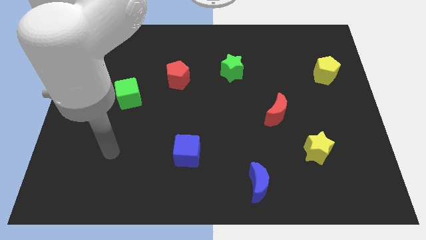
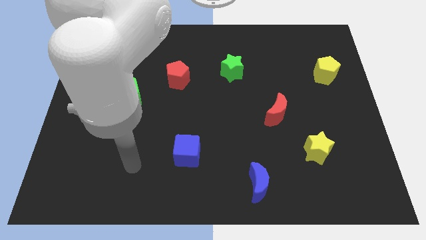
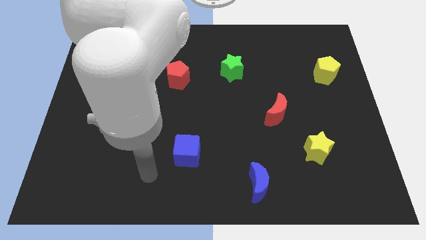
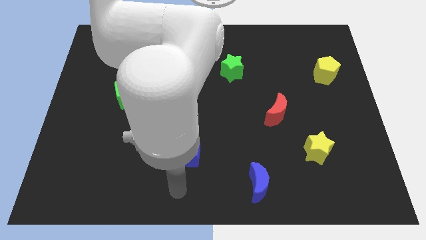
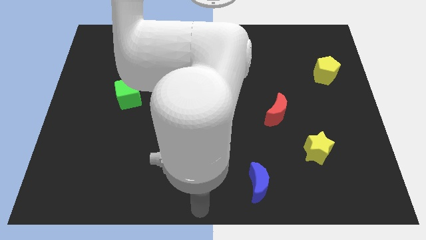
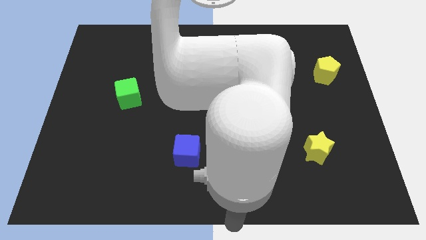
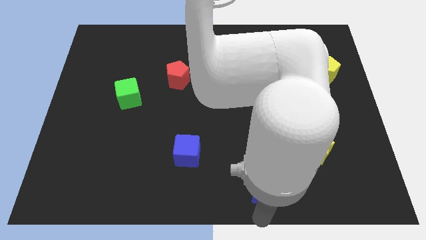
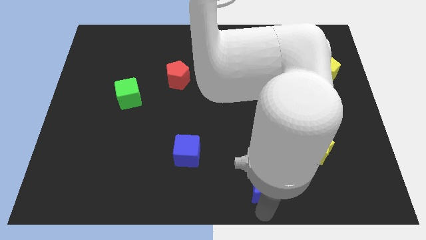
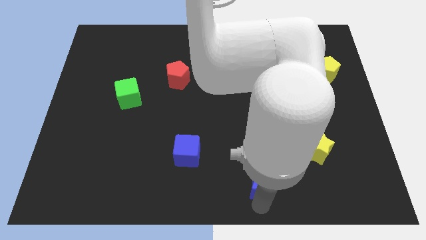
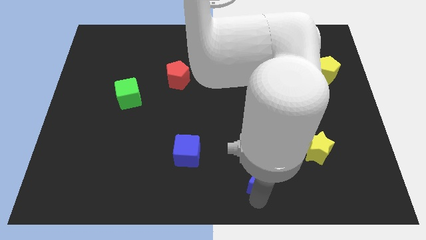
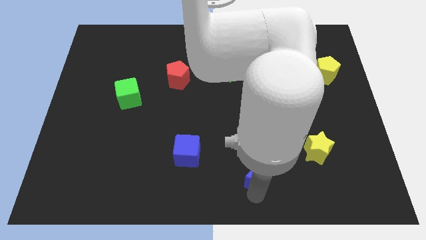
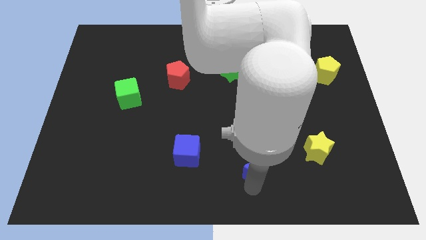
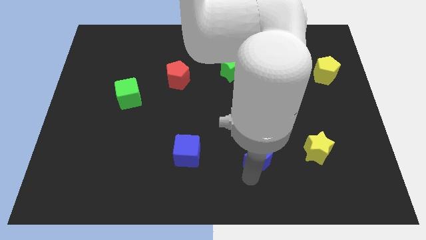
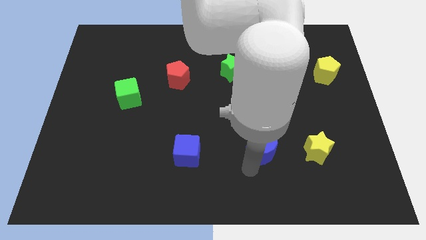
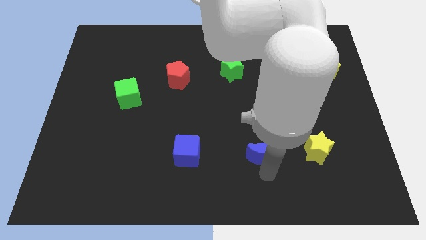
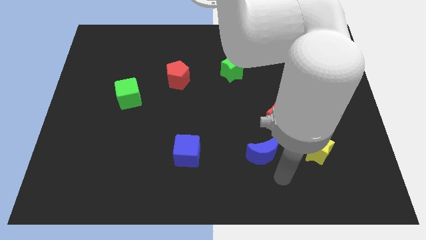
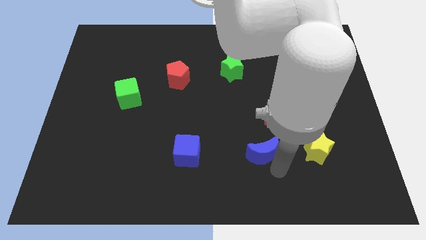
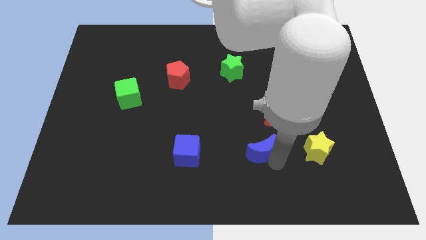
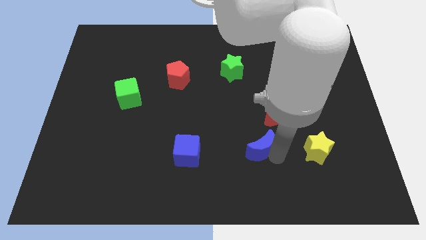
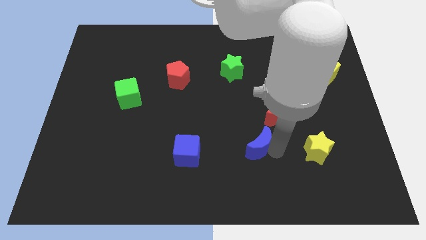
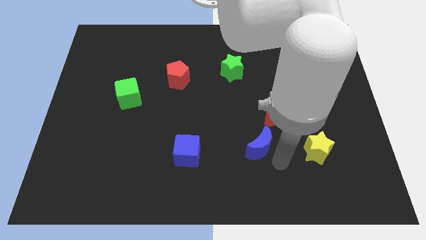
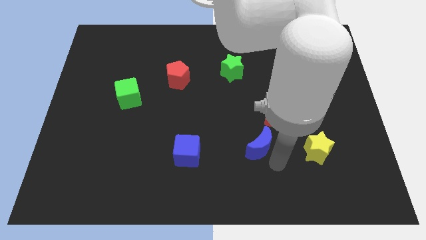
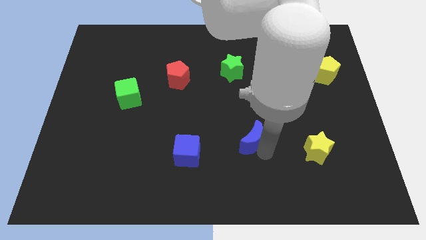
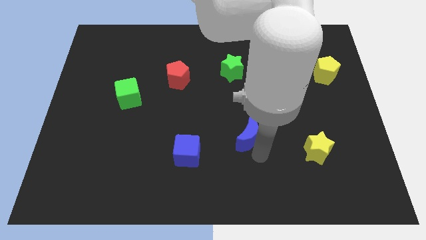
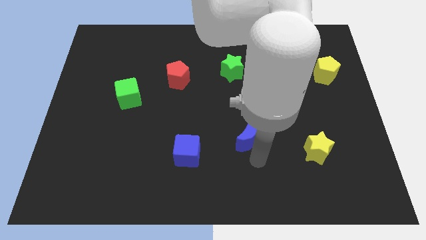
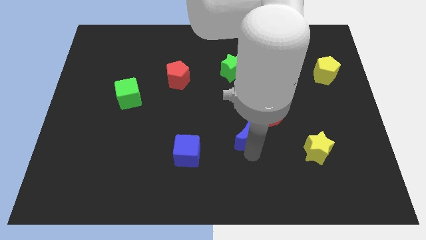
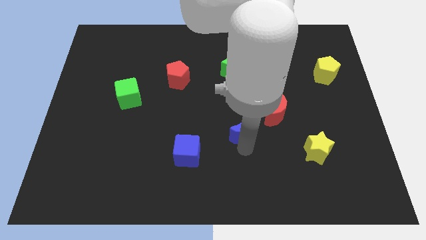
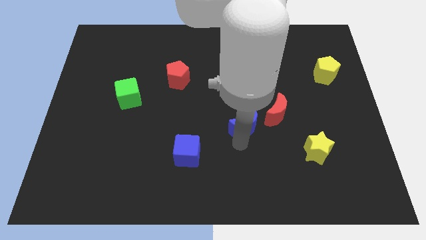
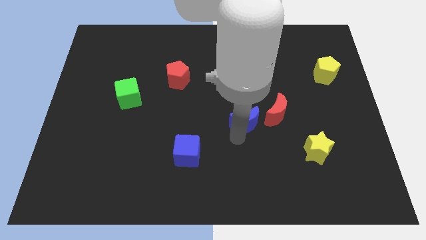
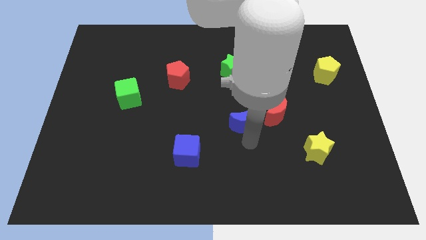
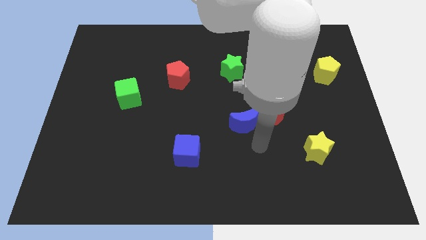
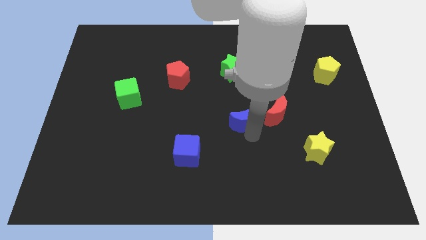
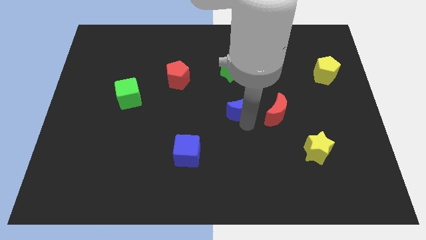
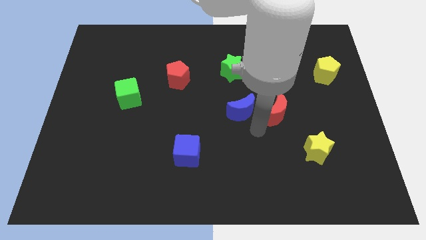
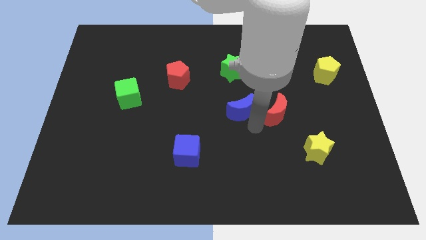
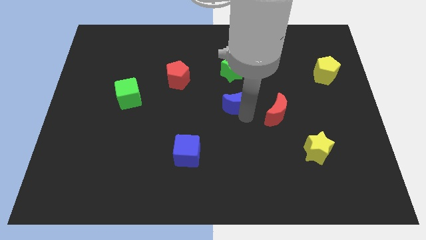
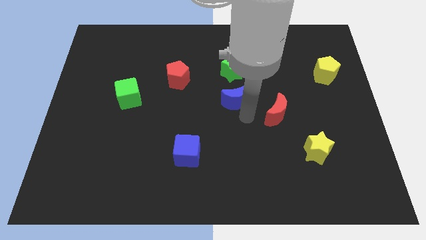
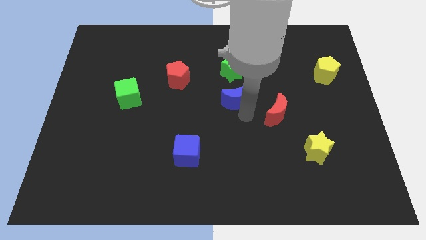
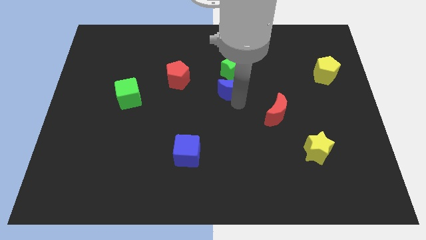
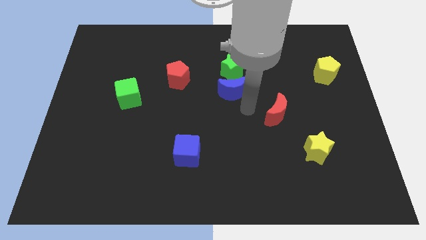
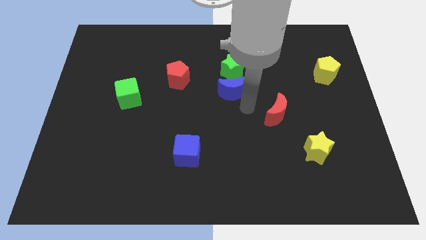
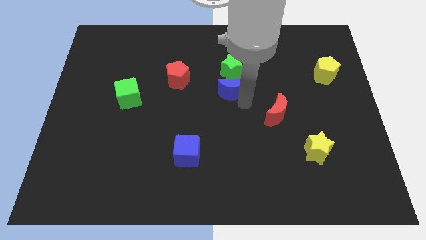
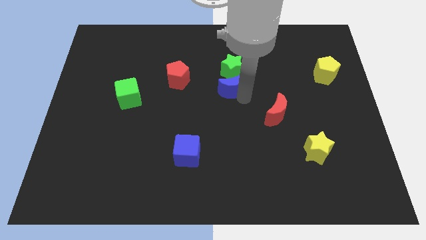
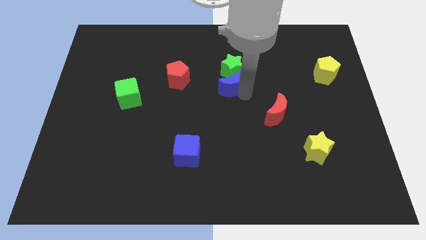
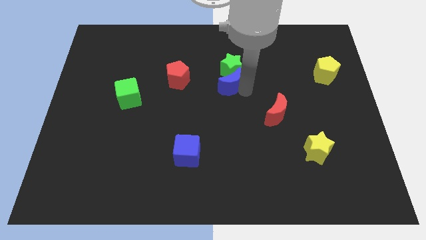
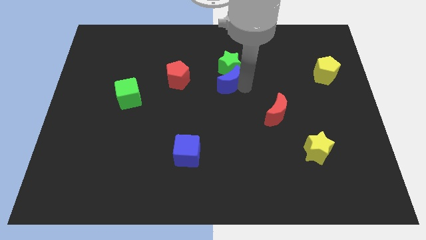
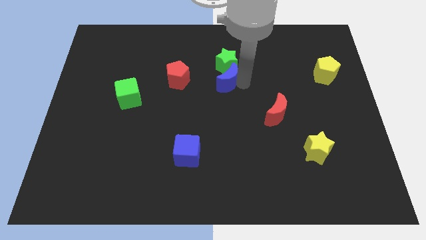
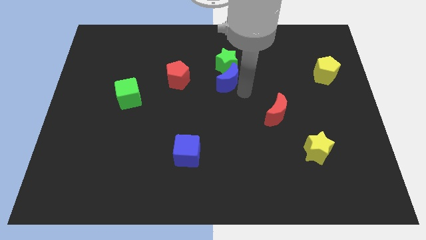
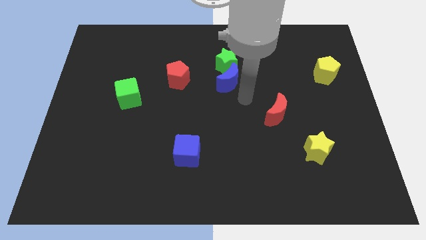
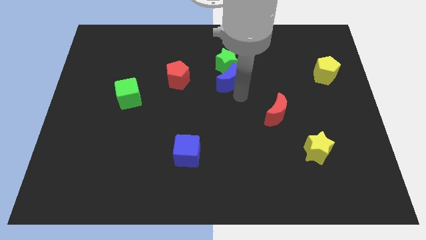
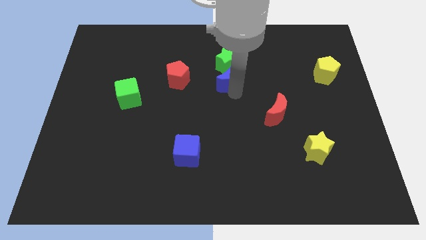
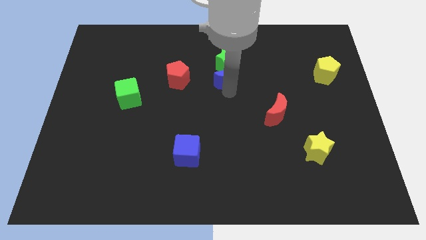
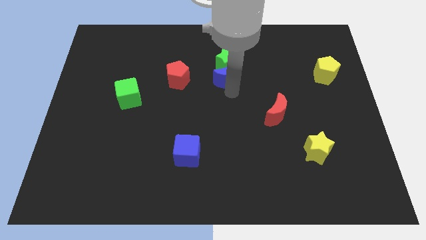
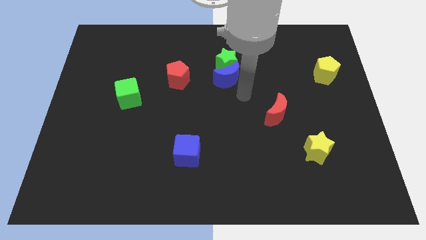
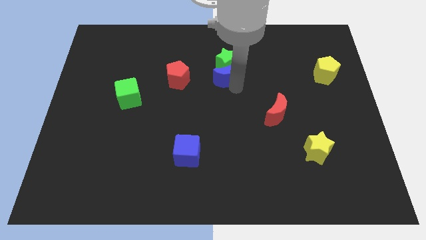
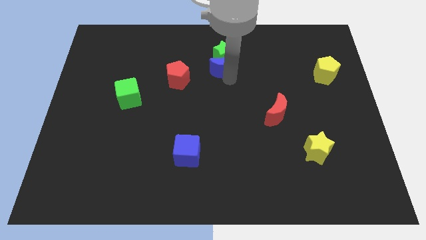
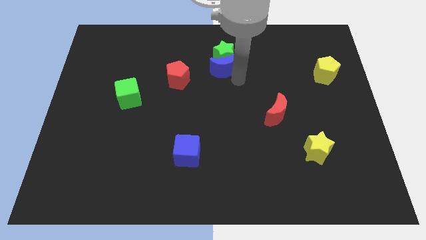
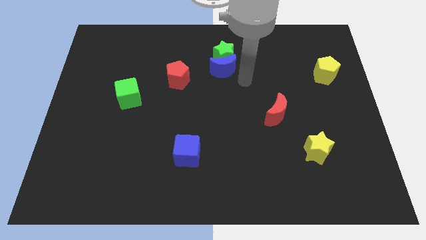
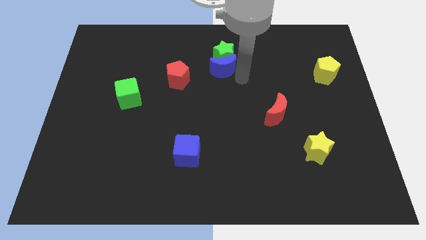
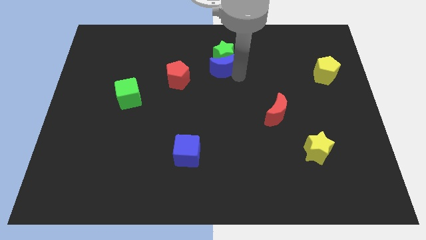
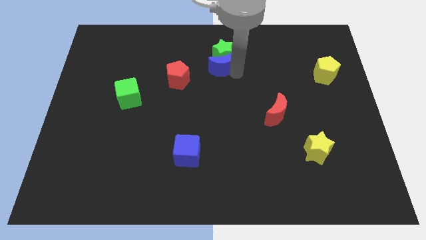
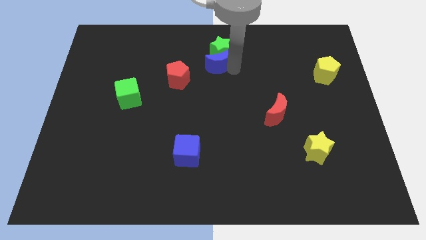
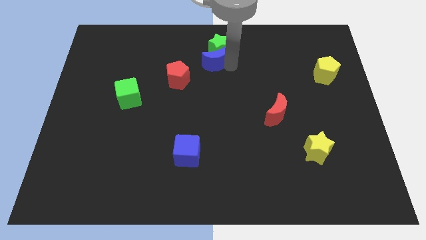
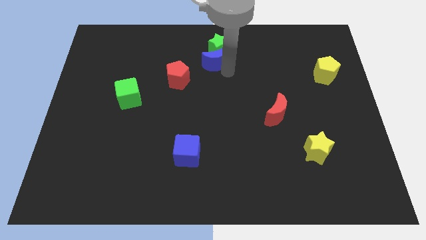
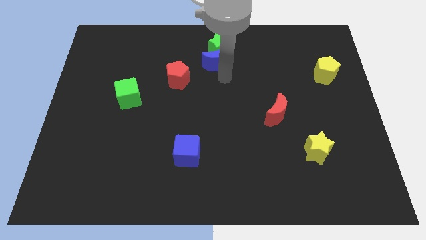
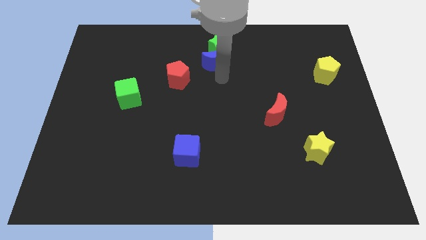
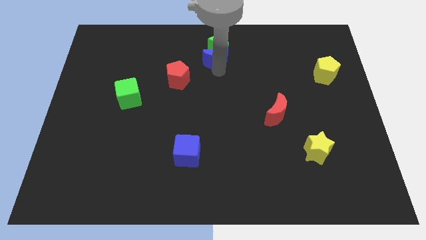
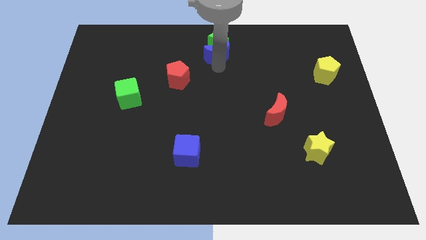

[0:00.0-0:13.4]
move the blue moon to the top side
